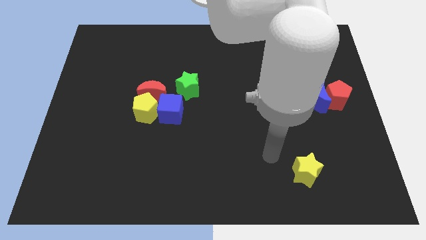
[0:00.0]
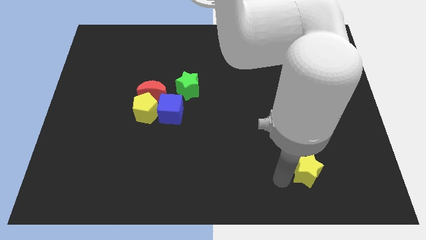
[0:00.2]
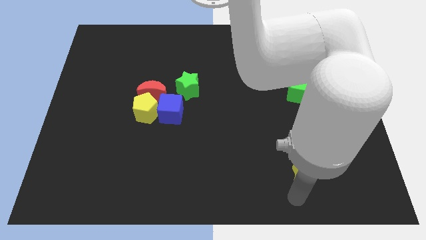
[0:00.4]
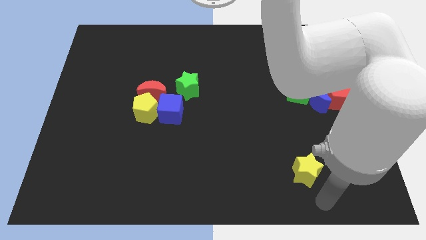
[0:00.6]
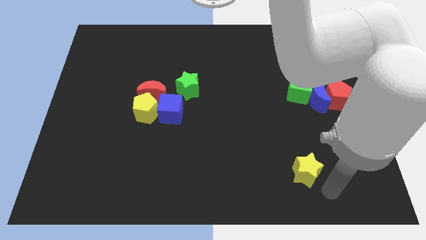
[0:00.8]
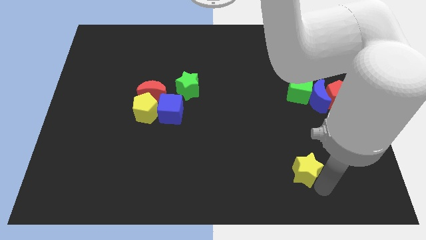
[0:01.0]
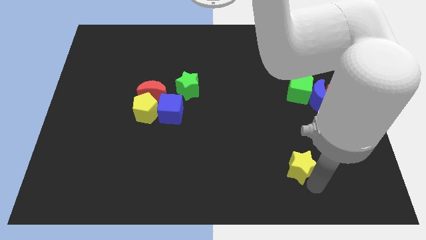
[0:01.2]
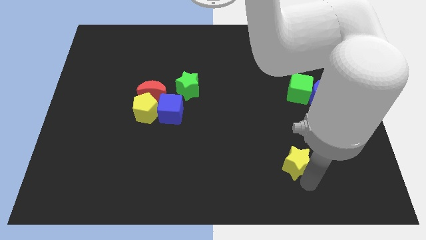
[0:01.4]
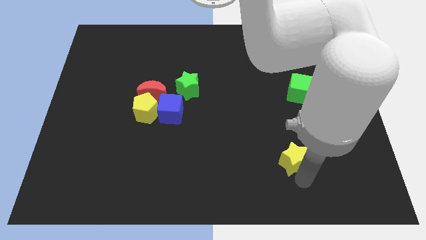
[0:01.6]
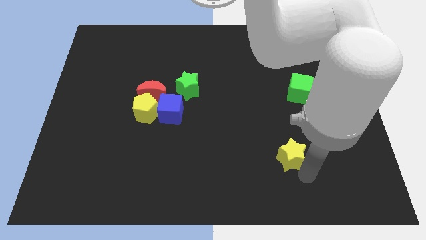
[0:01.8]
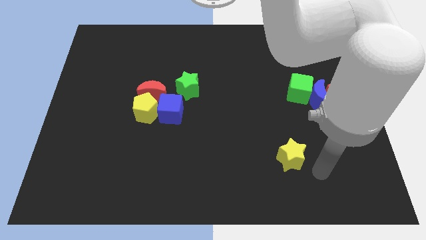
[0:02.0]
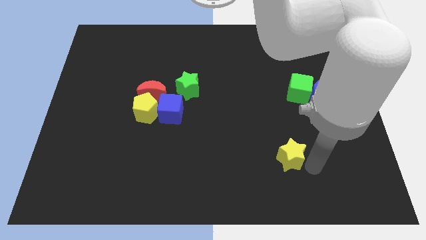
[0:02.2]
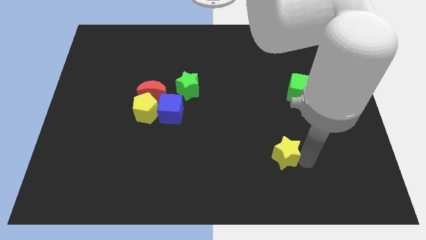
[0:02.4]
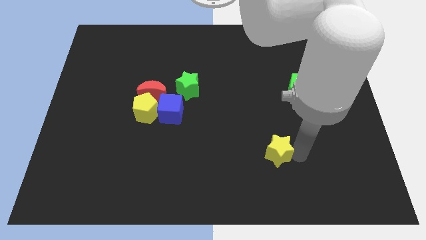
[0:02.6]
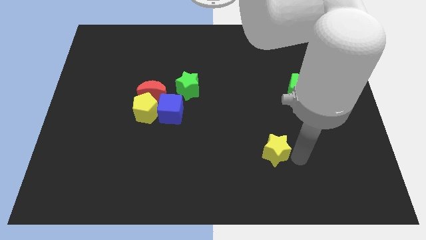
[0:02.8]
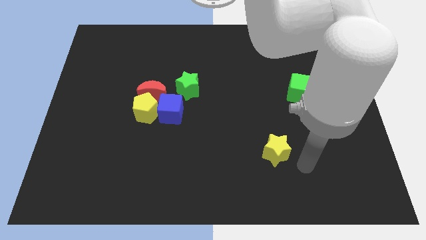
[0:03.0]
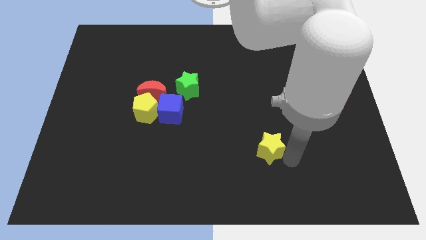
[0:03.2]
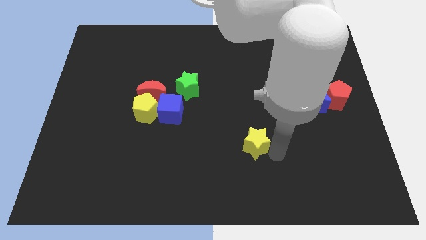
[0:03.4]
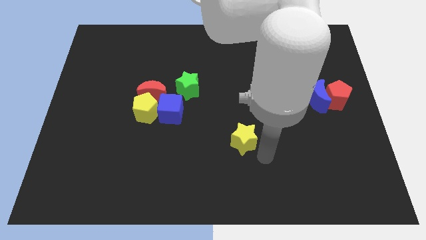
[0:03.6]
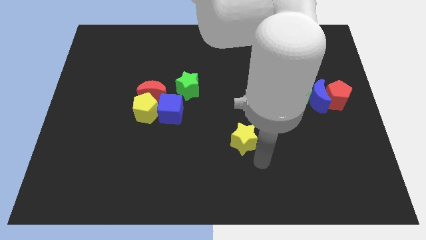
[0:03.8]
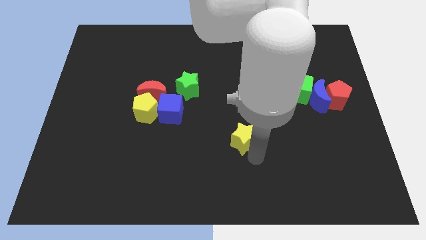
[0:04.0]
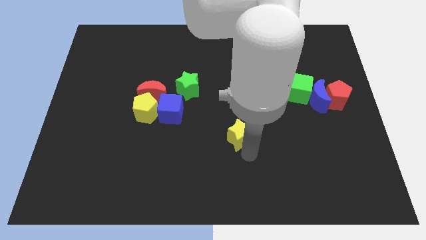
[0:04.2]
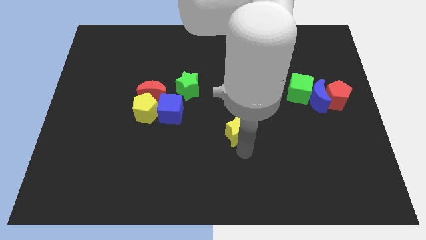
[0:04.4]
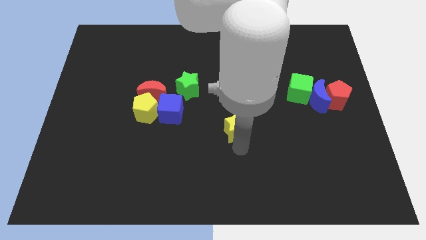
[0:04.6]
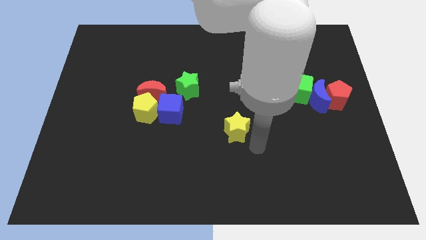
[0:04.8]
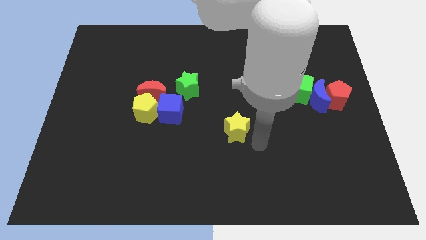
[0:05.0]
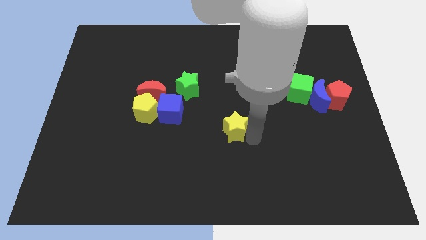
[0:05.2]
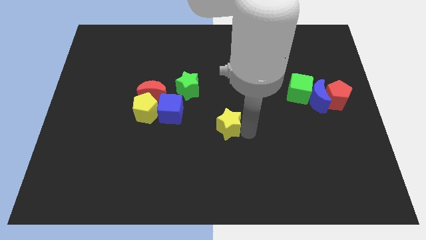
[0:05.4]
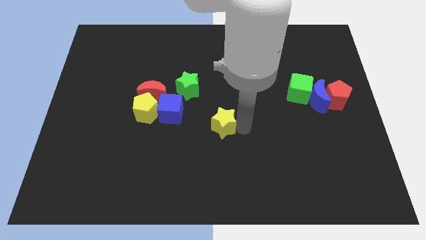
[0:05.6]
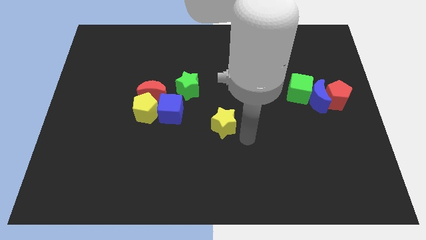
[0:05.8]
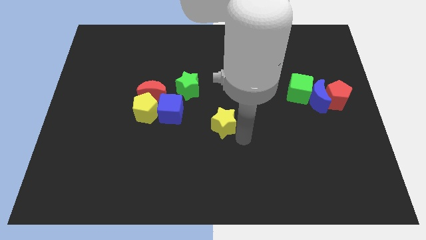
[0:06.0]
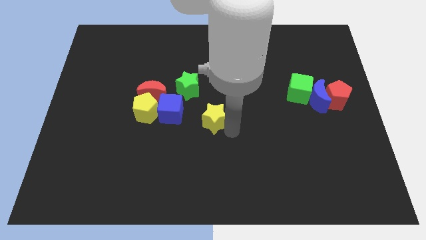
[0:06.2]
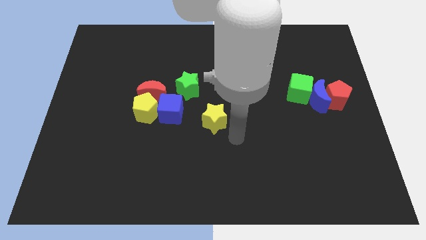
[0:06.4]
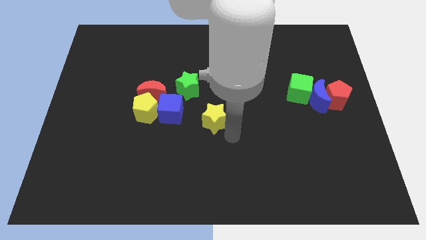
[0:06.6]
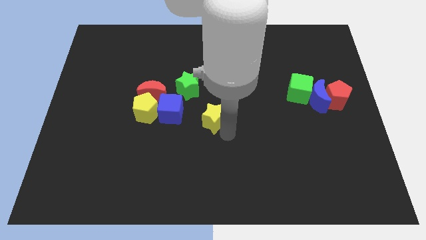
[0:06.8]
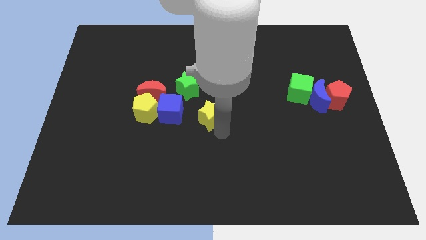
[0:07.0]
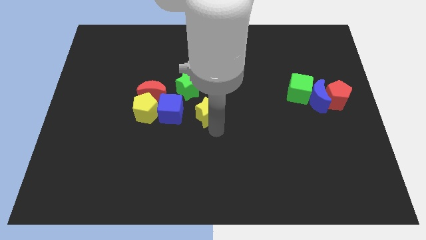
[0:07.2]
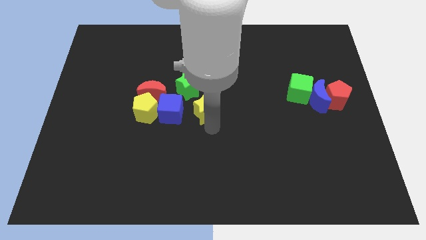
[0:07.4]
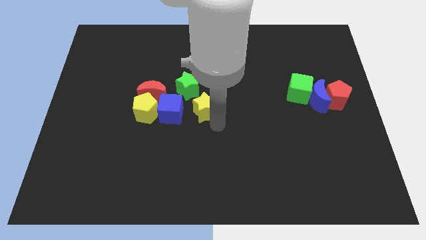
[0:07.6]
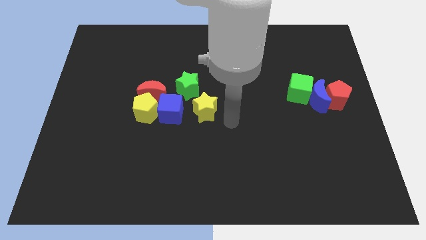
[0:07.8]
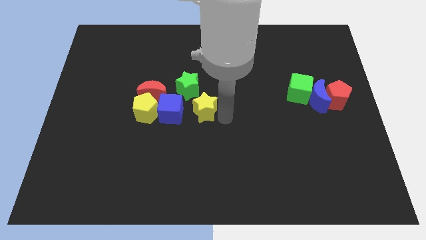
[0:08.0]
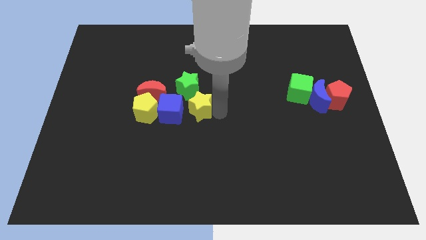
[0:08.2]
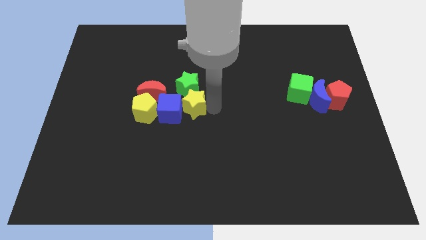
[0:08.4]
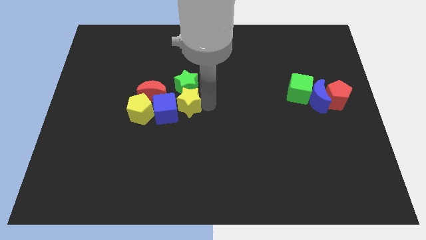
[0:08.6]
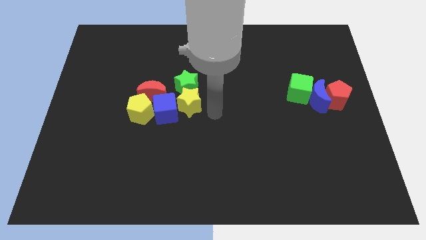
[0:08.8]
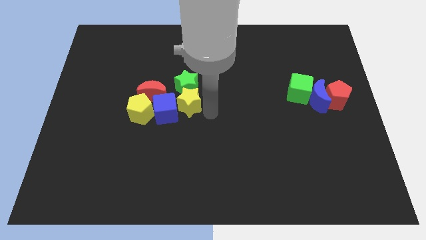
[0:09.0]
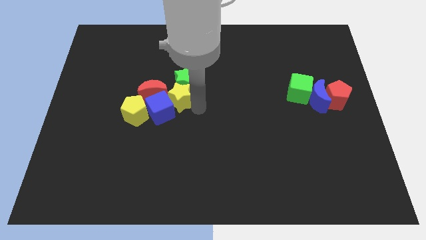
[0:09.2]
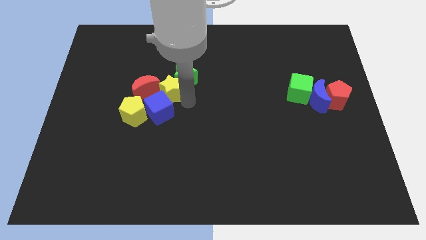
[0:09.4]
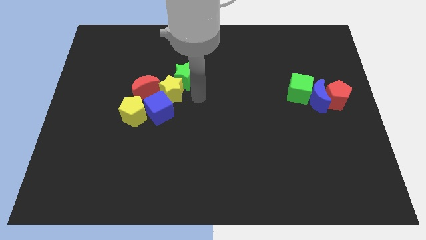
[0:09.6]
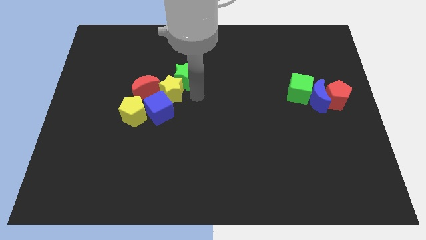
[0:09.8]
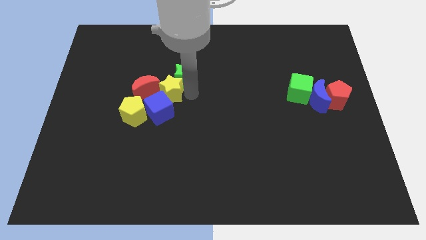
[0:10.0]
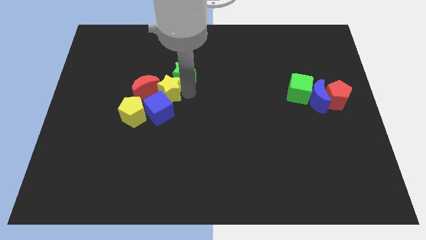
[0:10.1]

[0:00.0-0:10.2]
move the yellow star towards the red moon

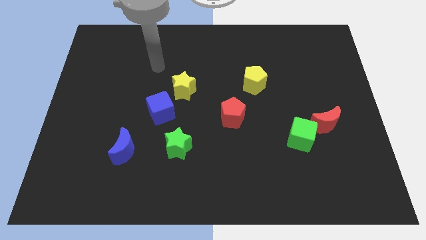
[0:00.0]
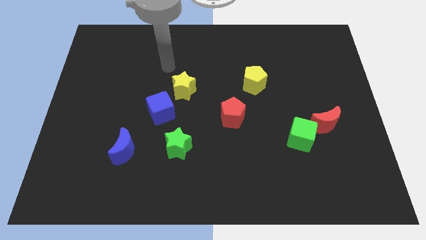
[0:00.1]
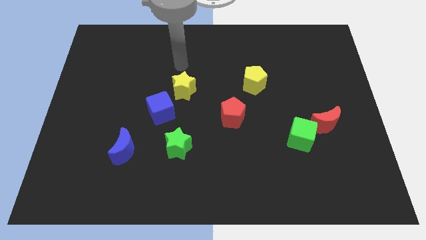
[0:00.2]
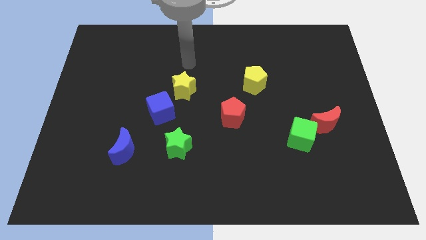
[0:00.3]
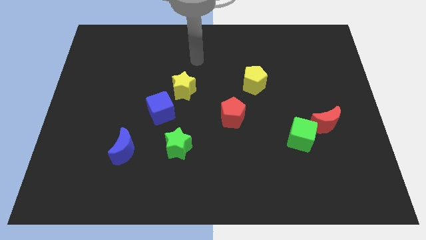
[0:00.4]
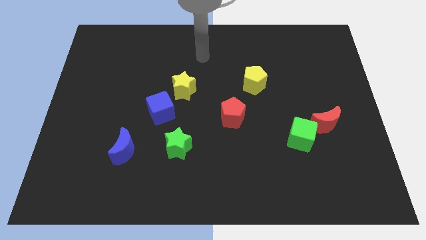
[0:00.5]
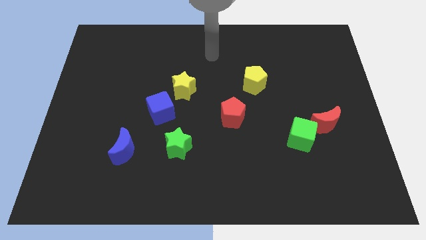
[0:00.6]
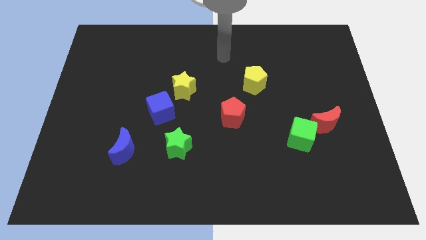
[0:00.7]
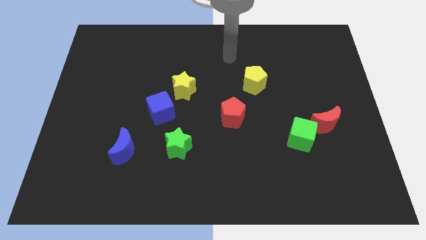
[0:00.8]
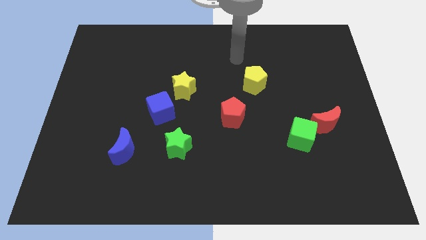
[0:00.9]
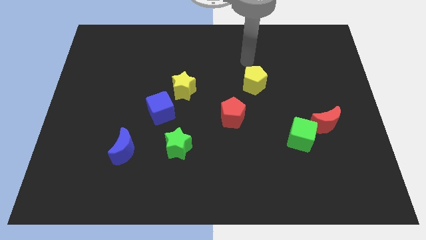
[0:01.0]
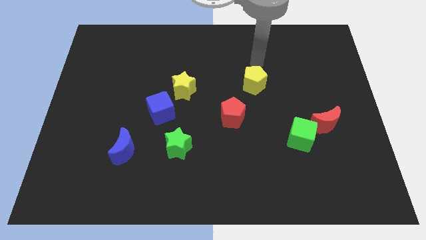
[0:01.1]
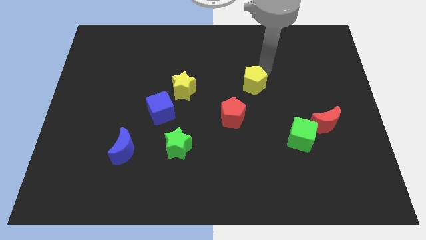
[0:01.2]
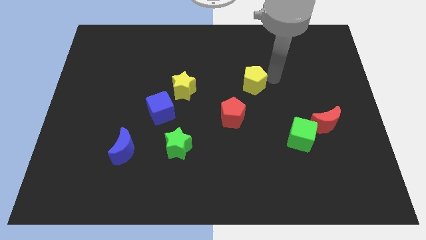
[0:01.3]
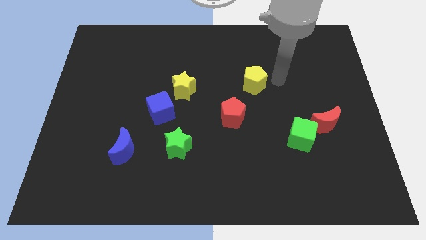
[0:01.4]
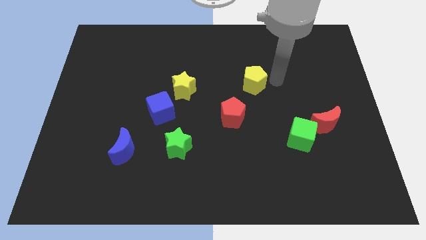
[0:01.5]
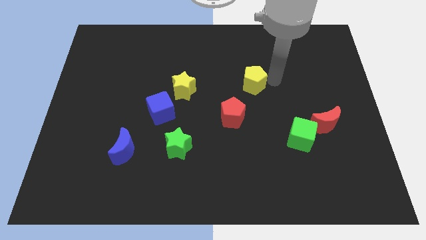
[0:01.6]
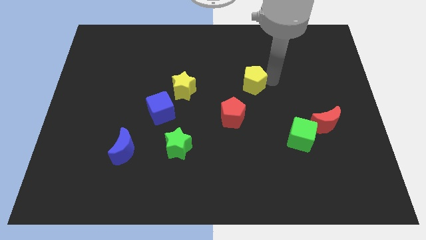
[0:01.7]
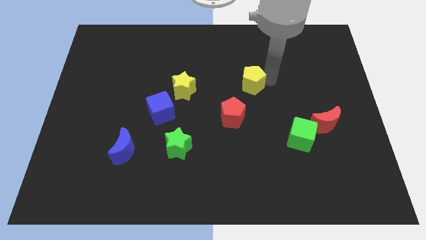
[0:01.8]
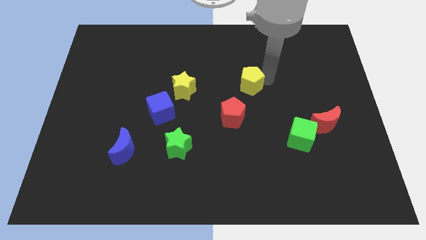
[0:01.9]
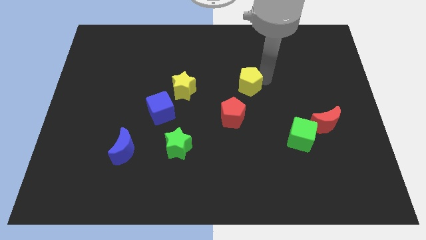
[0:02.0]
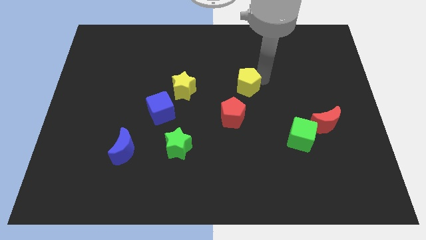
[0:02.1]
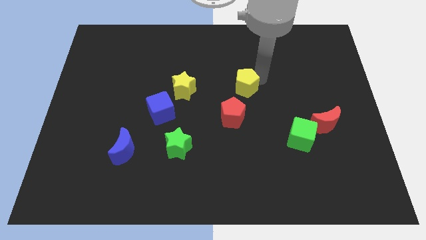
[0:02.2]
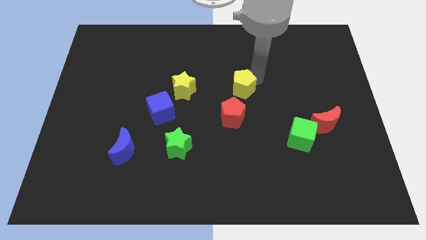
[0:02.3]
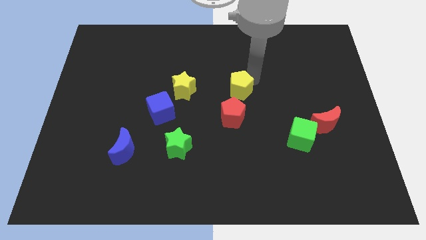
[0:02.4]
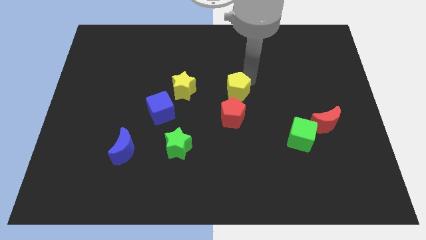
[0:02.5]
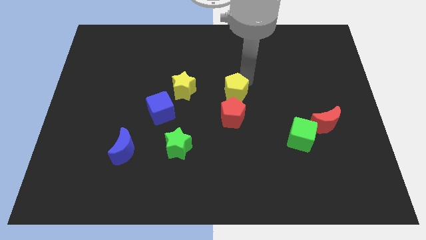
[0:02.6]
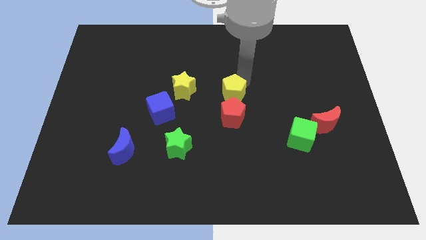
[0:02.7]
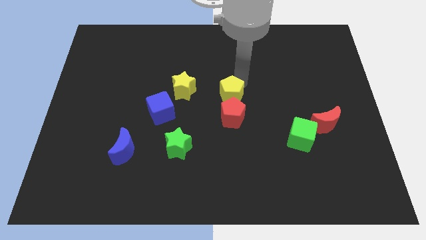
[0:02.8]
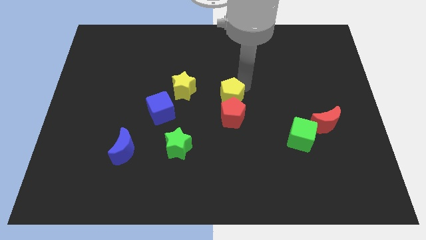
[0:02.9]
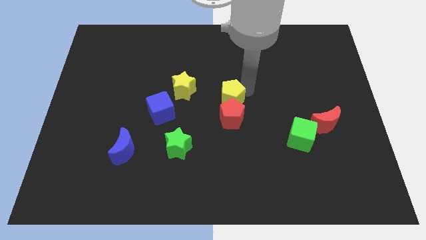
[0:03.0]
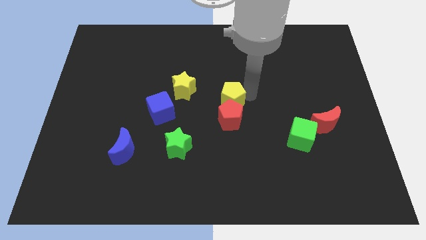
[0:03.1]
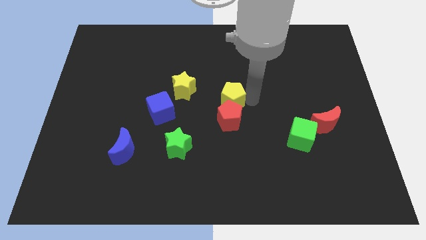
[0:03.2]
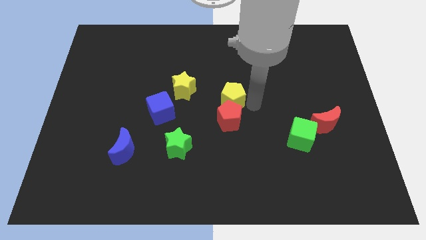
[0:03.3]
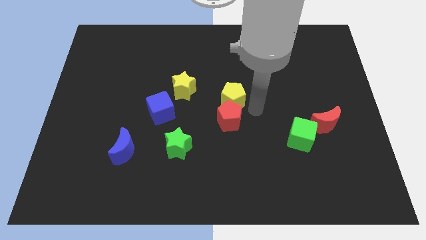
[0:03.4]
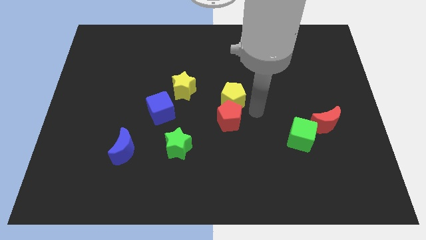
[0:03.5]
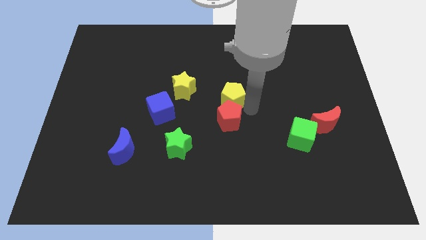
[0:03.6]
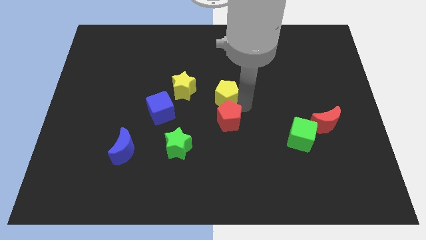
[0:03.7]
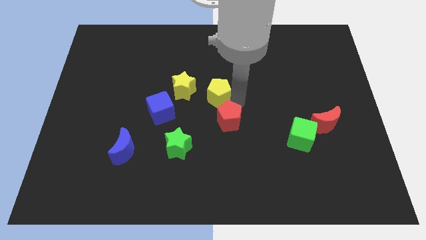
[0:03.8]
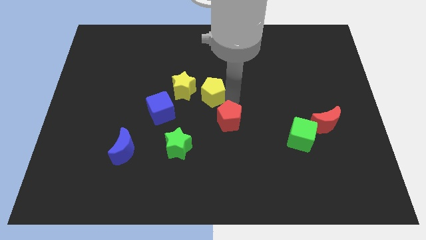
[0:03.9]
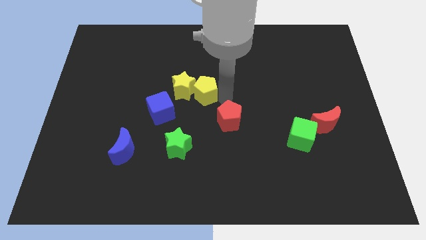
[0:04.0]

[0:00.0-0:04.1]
push the yellow pentagon close to the yellow star
